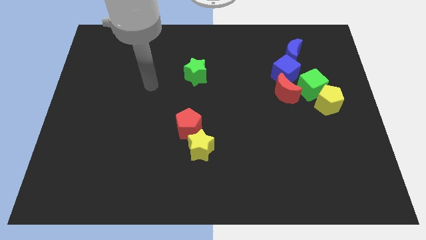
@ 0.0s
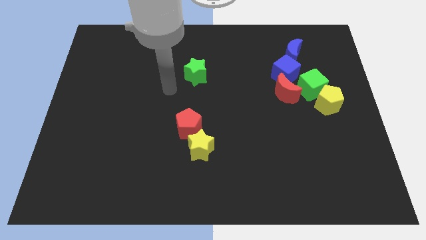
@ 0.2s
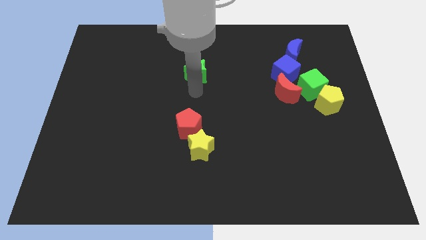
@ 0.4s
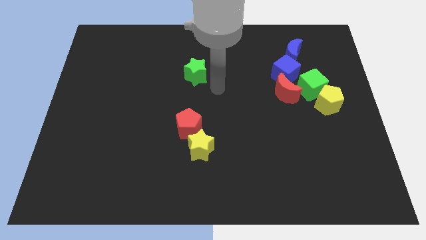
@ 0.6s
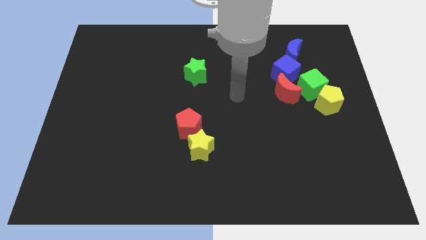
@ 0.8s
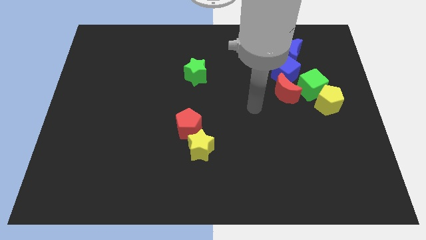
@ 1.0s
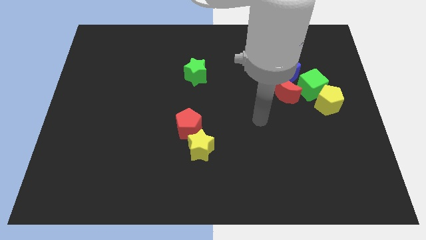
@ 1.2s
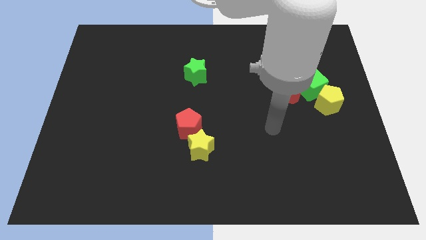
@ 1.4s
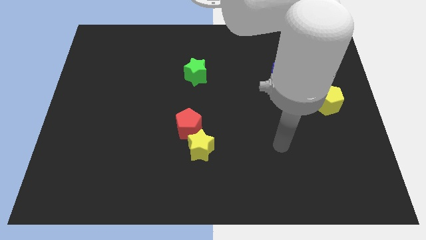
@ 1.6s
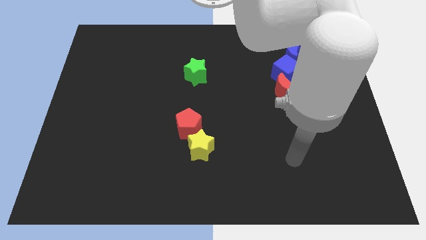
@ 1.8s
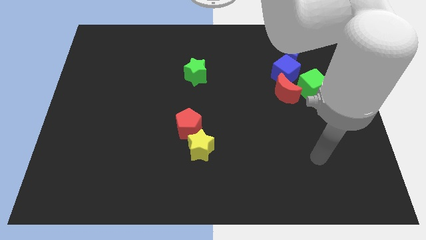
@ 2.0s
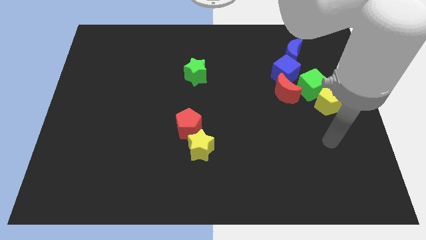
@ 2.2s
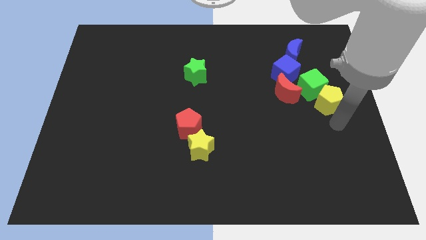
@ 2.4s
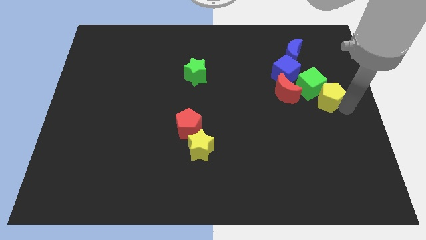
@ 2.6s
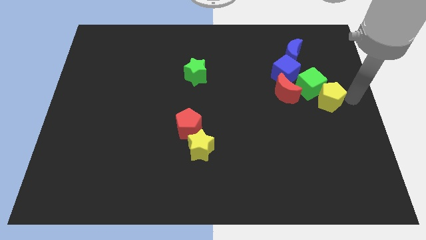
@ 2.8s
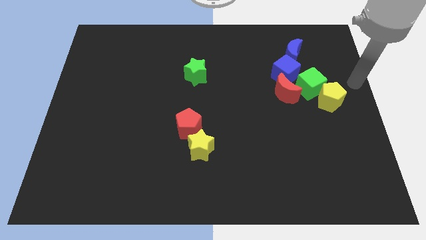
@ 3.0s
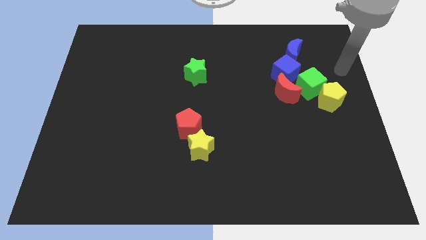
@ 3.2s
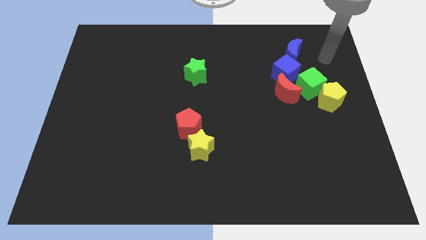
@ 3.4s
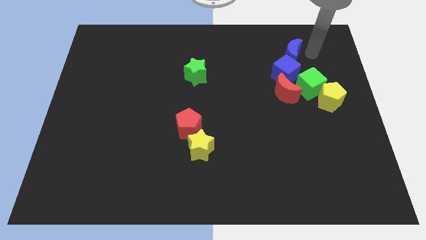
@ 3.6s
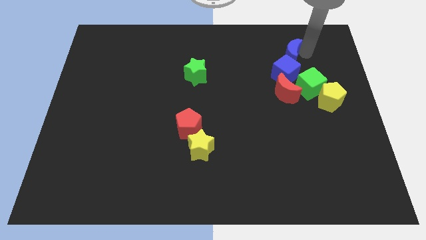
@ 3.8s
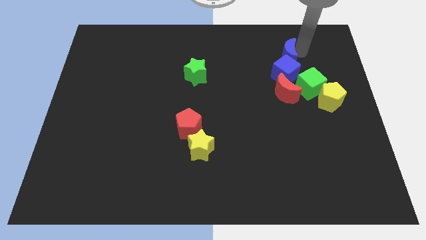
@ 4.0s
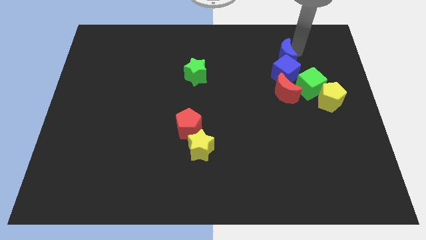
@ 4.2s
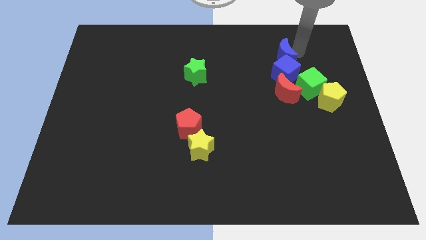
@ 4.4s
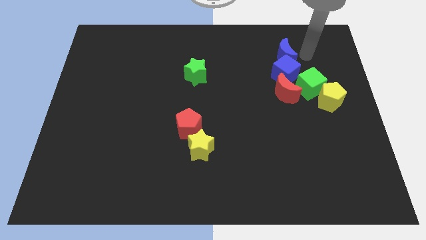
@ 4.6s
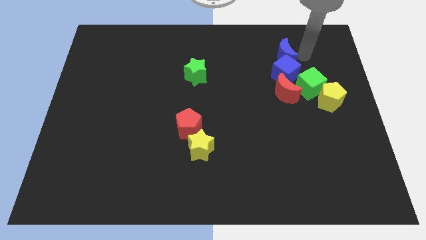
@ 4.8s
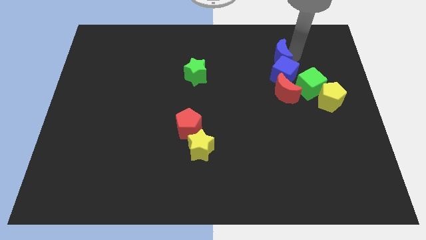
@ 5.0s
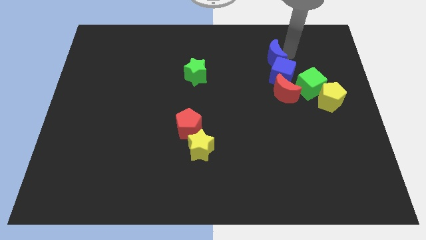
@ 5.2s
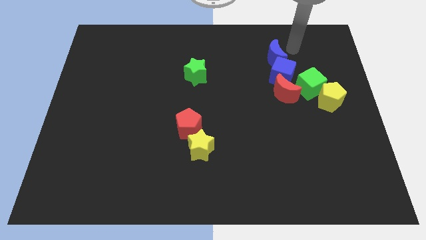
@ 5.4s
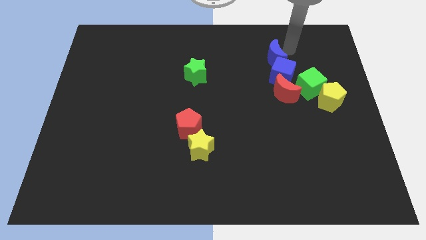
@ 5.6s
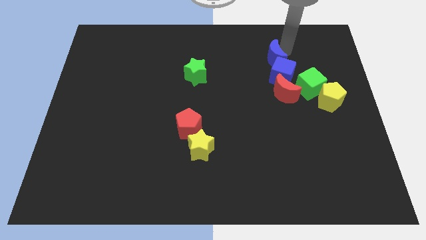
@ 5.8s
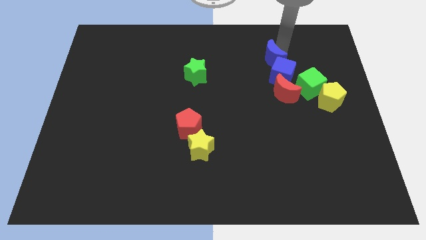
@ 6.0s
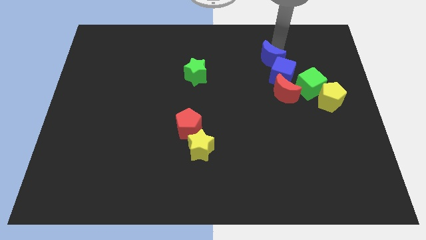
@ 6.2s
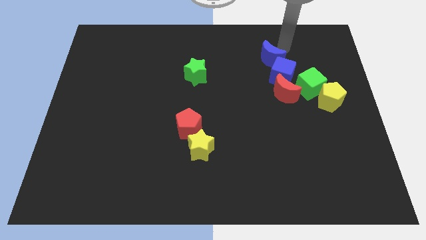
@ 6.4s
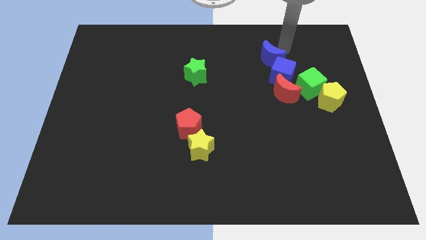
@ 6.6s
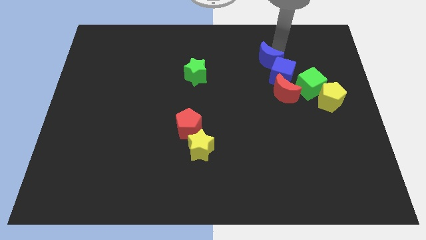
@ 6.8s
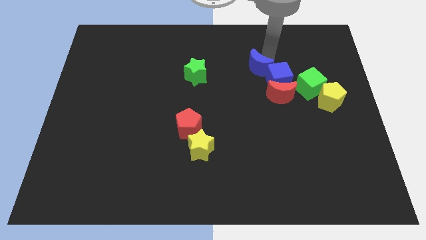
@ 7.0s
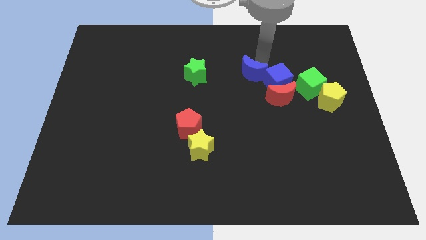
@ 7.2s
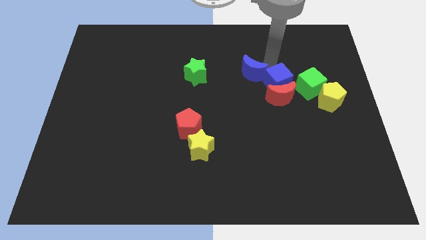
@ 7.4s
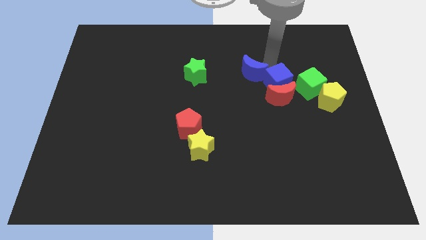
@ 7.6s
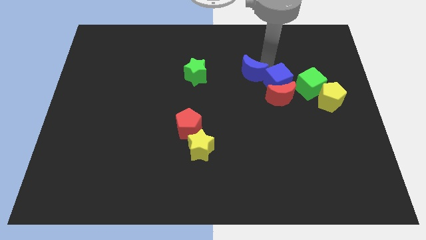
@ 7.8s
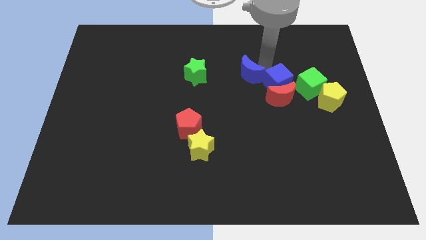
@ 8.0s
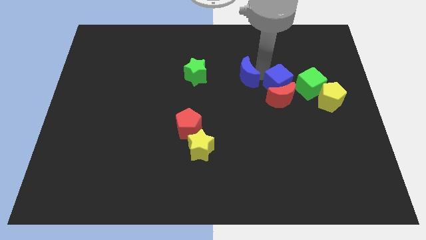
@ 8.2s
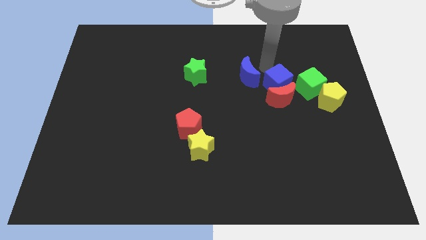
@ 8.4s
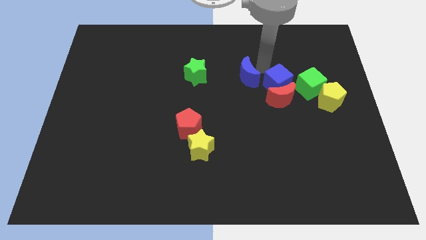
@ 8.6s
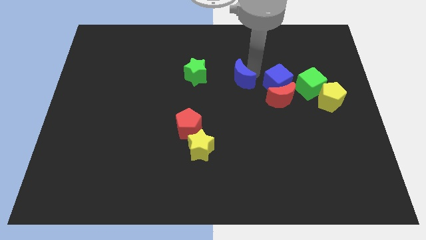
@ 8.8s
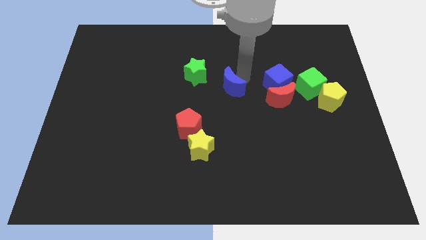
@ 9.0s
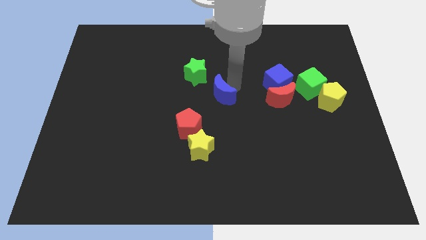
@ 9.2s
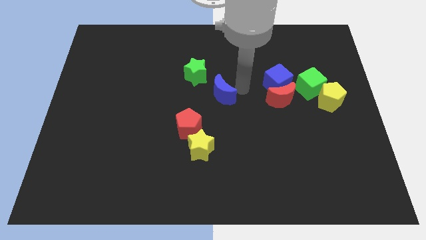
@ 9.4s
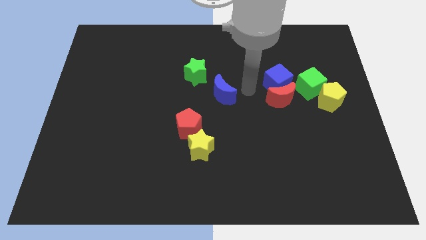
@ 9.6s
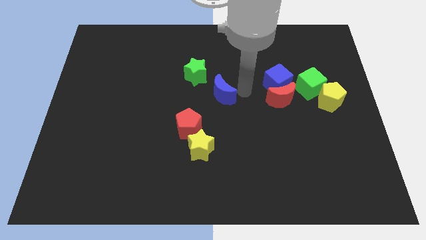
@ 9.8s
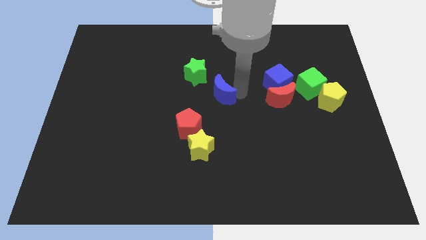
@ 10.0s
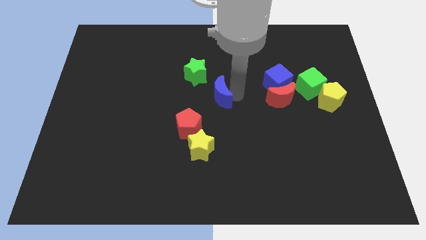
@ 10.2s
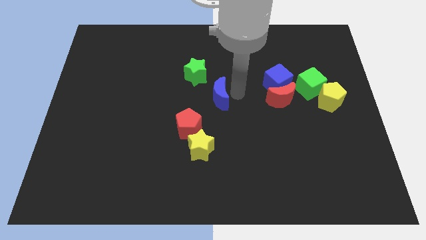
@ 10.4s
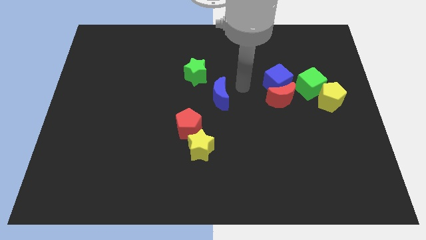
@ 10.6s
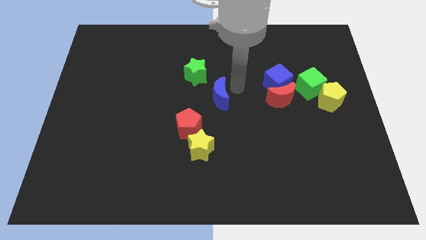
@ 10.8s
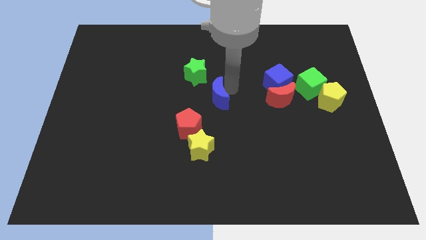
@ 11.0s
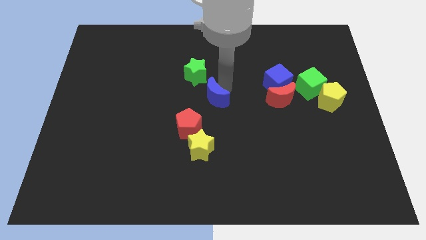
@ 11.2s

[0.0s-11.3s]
slide the blue moon to the bottom side of the green star

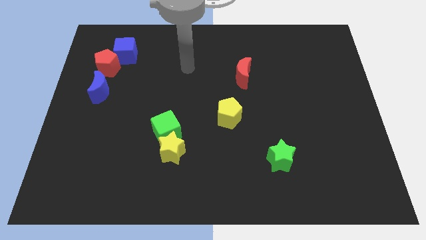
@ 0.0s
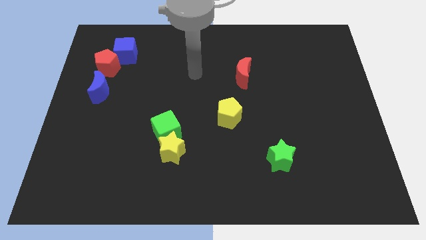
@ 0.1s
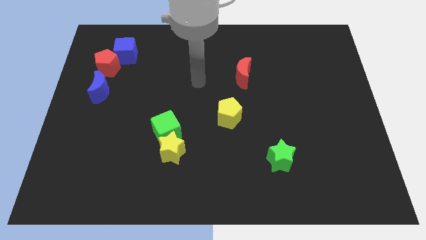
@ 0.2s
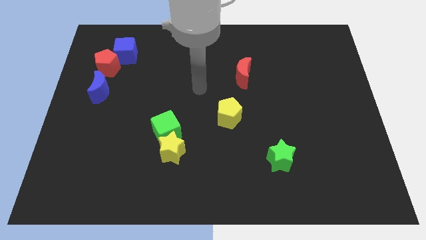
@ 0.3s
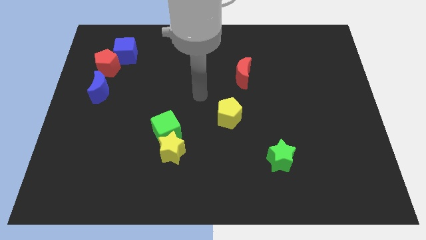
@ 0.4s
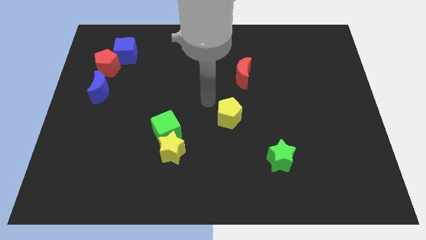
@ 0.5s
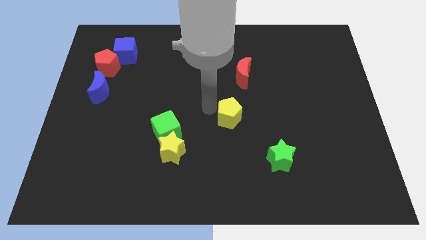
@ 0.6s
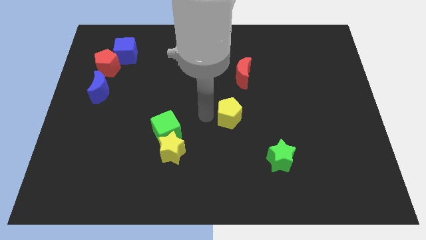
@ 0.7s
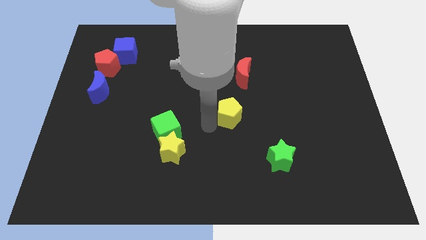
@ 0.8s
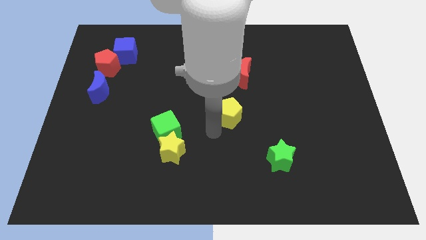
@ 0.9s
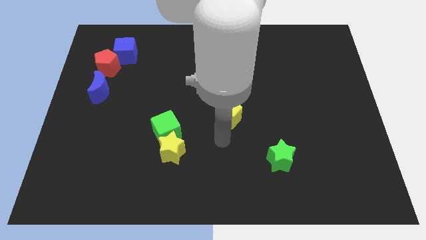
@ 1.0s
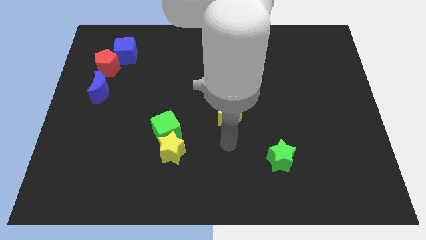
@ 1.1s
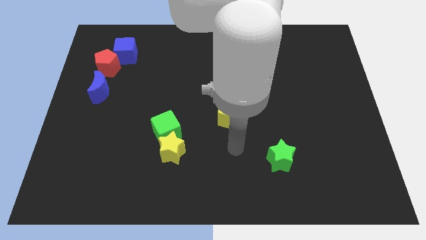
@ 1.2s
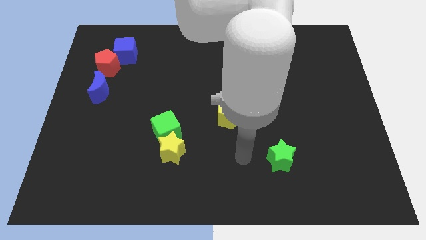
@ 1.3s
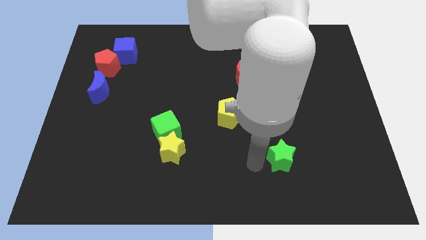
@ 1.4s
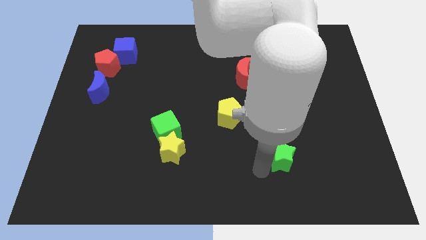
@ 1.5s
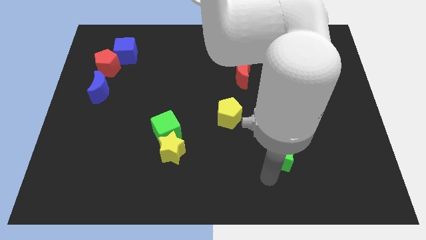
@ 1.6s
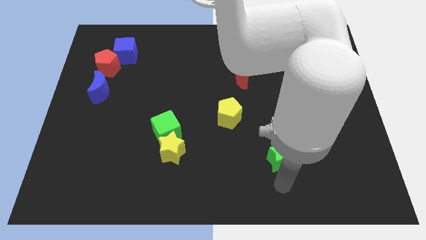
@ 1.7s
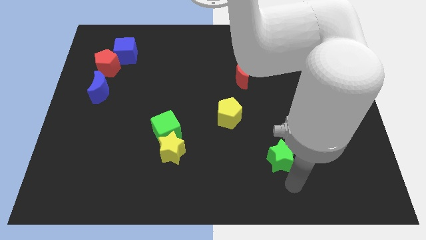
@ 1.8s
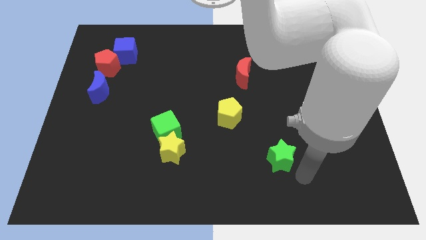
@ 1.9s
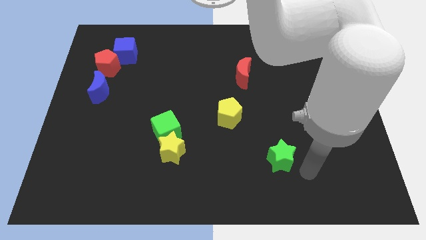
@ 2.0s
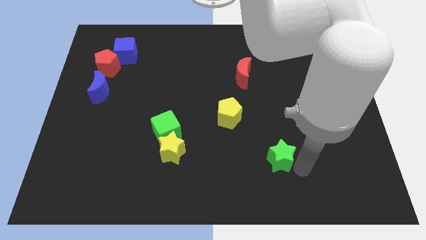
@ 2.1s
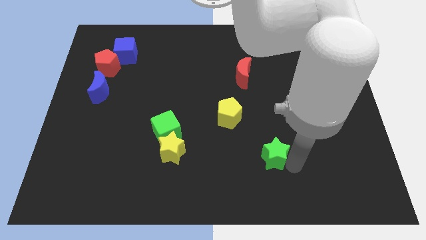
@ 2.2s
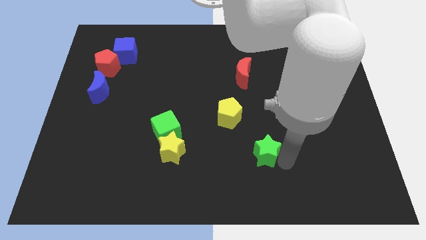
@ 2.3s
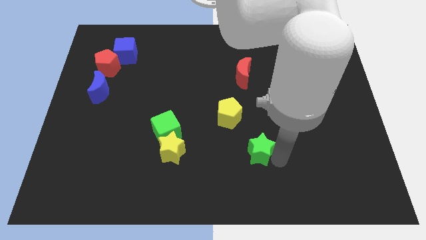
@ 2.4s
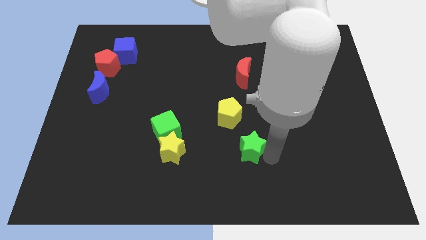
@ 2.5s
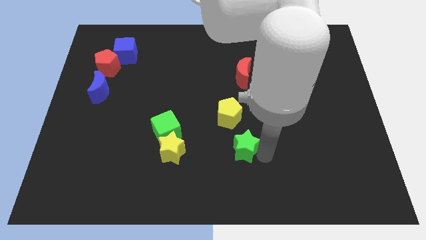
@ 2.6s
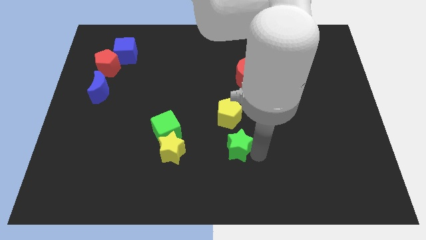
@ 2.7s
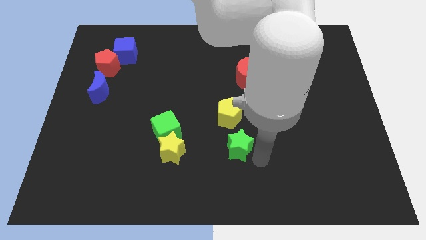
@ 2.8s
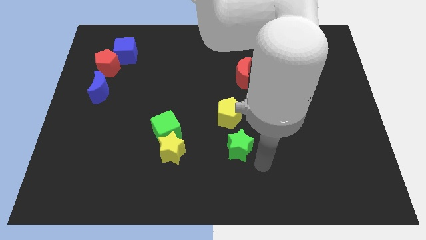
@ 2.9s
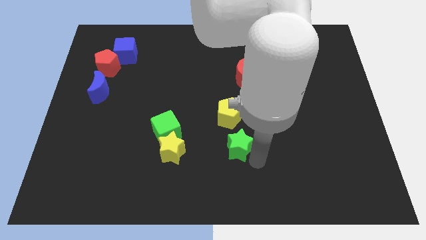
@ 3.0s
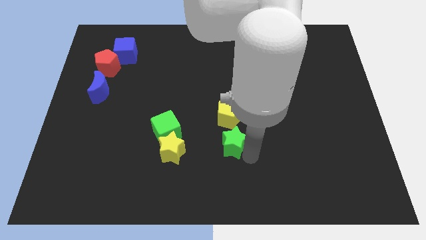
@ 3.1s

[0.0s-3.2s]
put the green star right of the green cube
